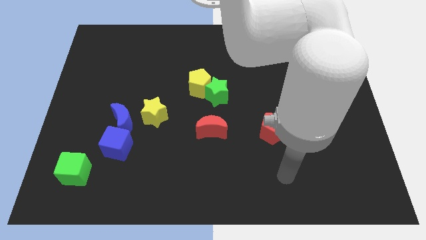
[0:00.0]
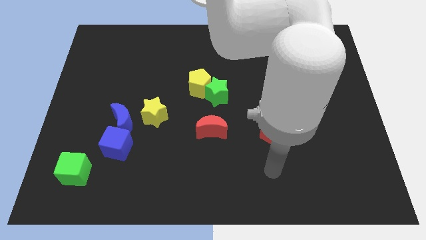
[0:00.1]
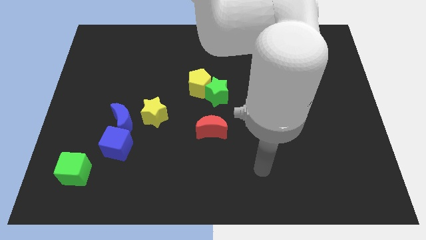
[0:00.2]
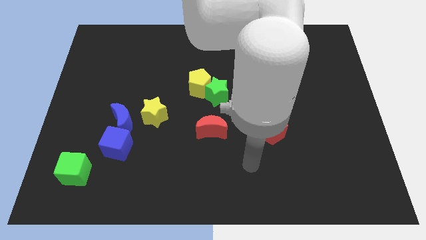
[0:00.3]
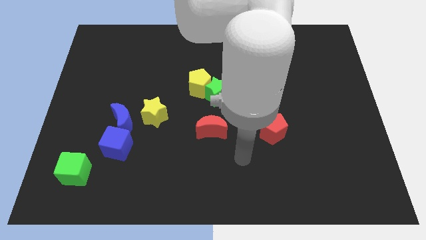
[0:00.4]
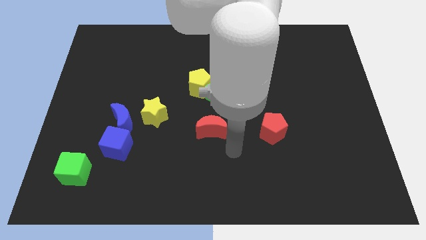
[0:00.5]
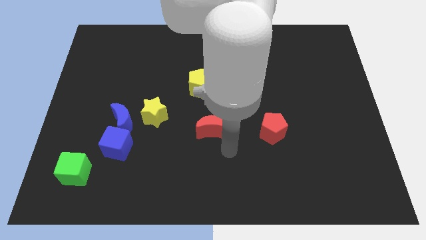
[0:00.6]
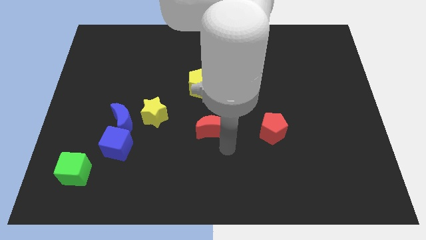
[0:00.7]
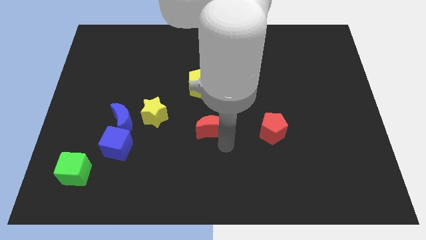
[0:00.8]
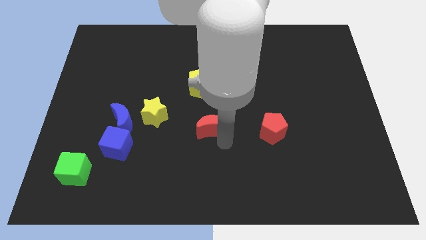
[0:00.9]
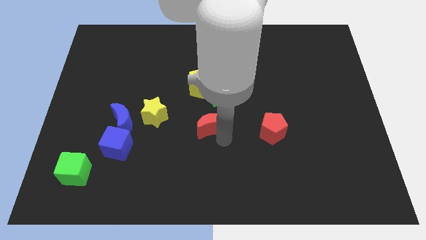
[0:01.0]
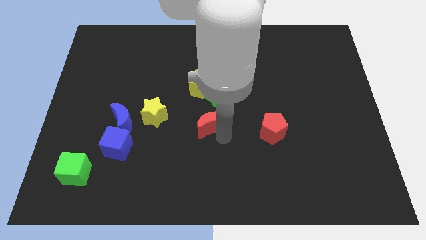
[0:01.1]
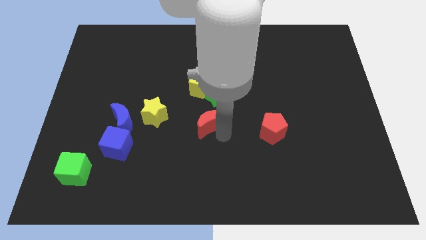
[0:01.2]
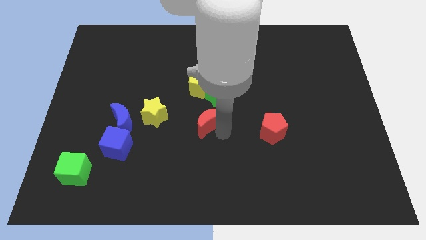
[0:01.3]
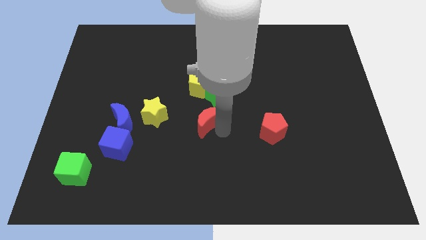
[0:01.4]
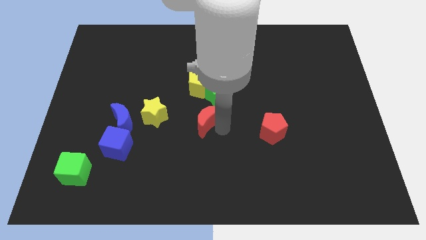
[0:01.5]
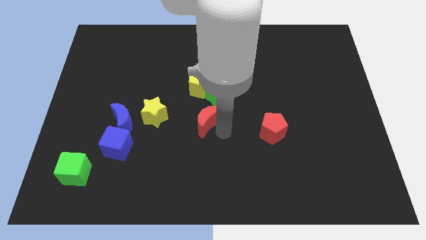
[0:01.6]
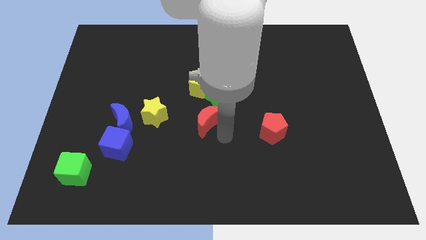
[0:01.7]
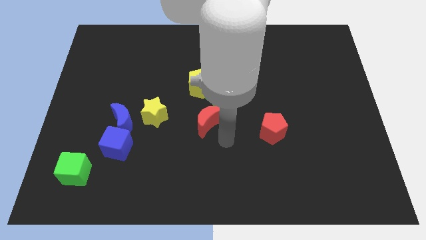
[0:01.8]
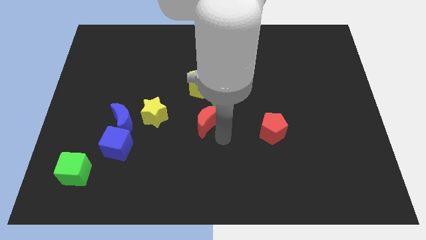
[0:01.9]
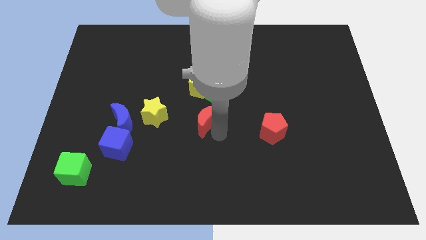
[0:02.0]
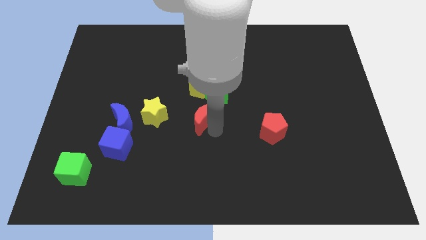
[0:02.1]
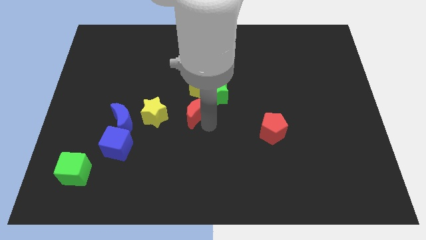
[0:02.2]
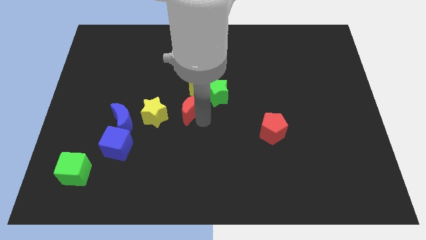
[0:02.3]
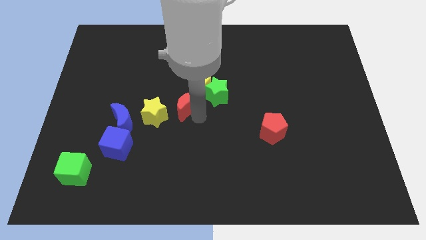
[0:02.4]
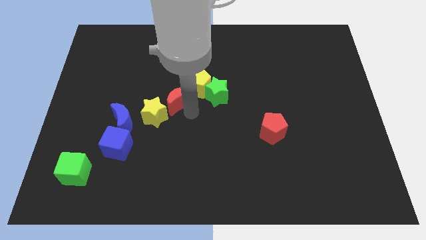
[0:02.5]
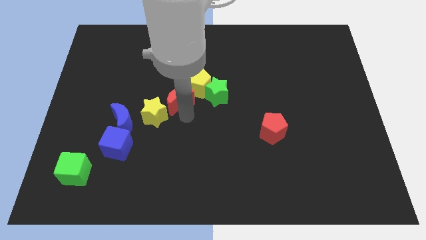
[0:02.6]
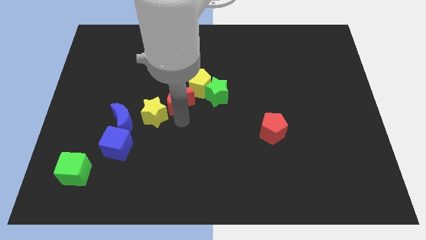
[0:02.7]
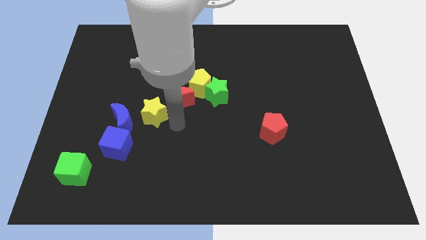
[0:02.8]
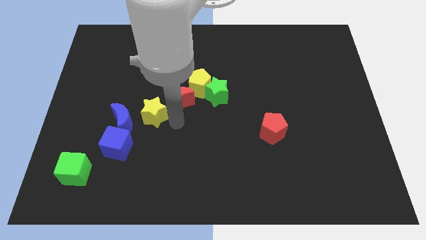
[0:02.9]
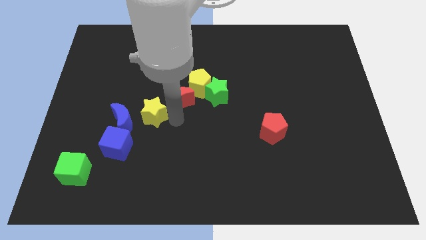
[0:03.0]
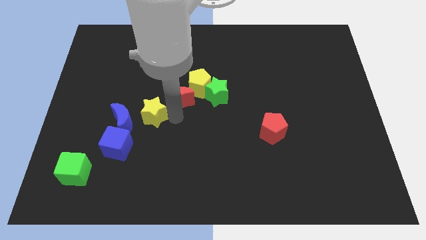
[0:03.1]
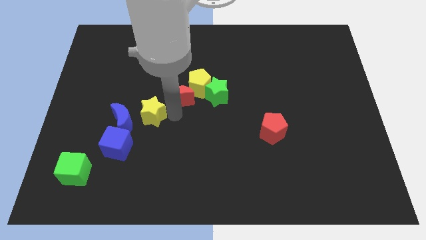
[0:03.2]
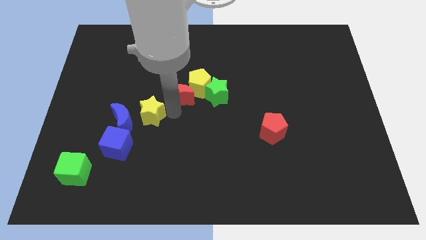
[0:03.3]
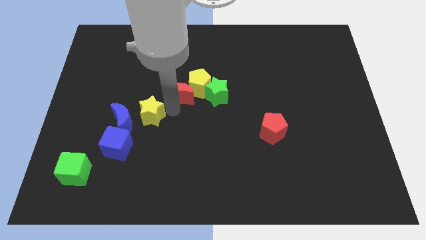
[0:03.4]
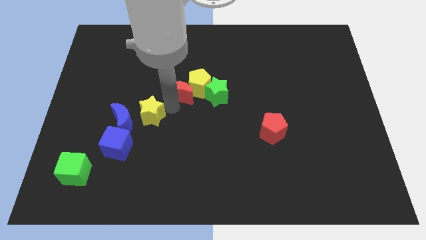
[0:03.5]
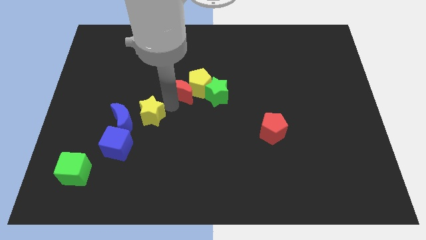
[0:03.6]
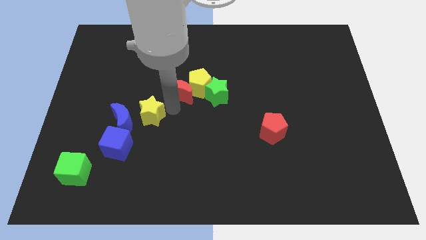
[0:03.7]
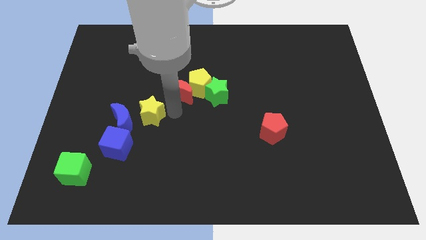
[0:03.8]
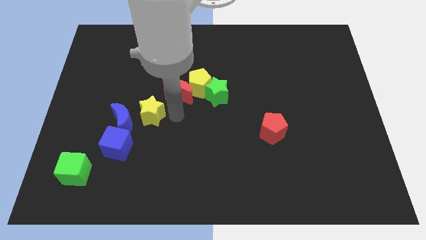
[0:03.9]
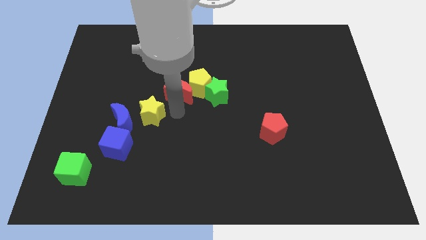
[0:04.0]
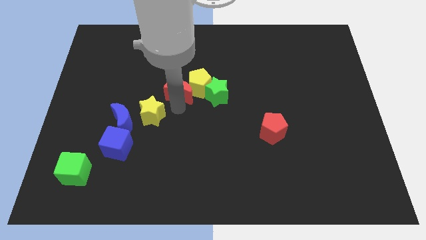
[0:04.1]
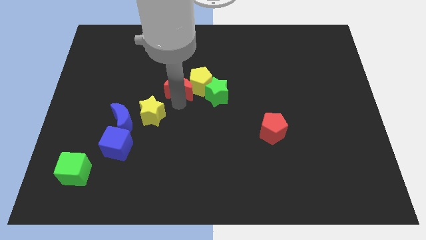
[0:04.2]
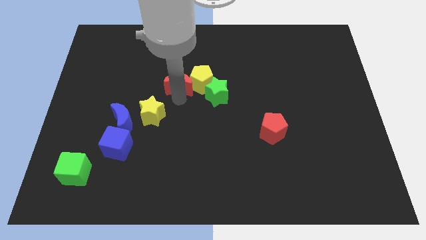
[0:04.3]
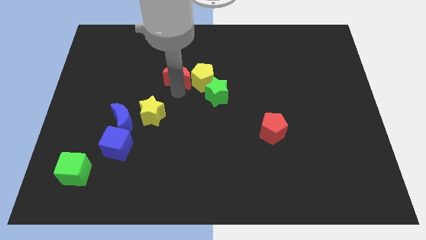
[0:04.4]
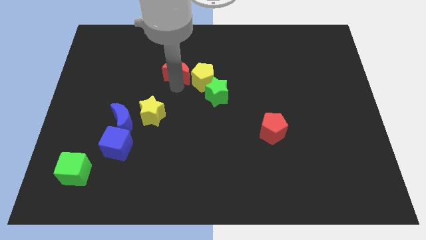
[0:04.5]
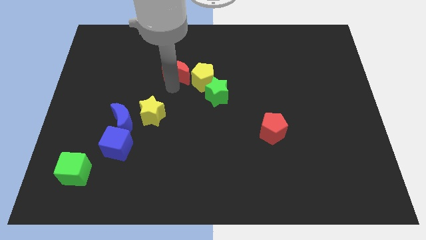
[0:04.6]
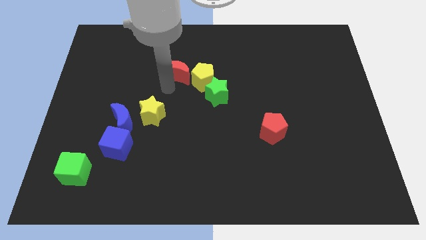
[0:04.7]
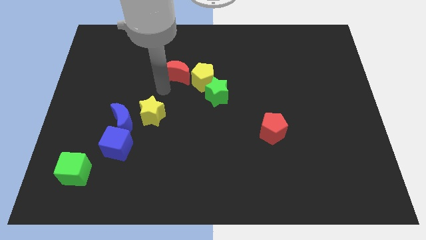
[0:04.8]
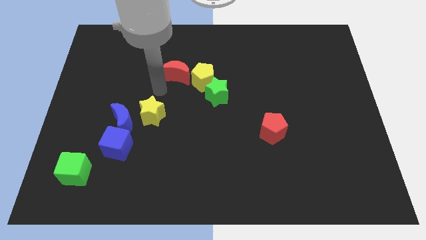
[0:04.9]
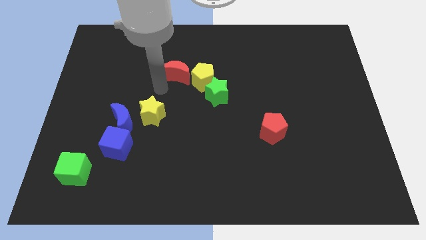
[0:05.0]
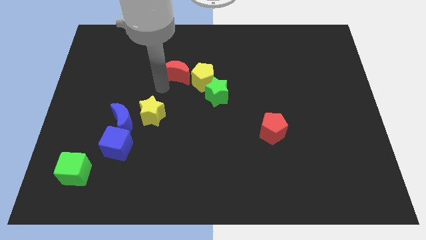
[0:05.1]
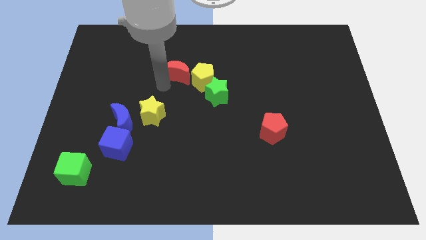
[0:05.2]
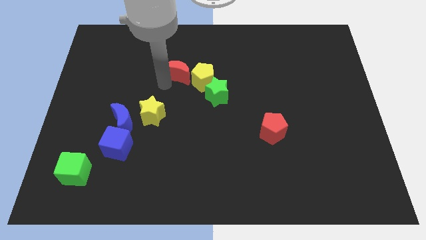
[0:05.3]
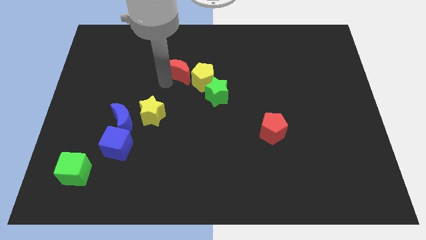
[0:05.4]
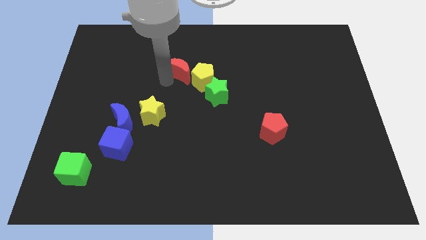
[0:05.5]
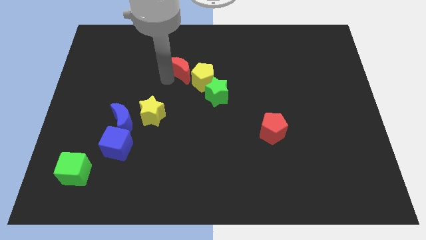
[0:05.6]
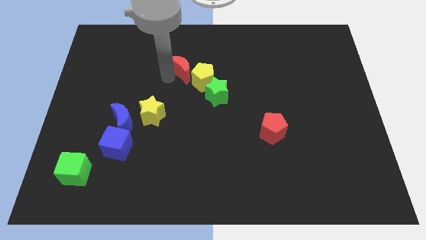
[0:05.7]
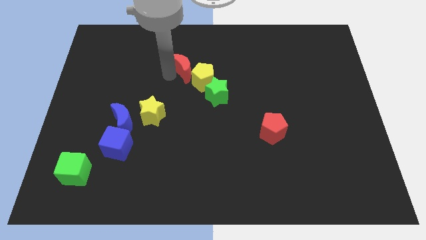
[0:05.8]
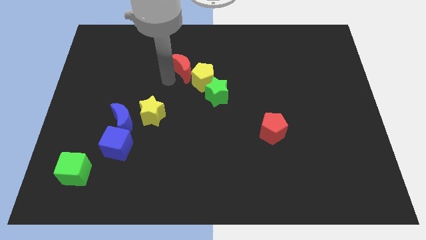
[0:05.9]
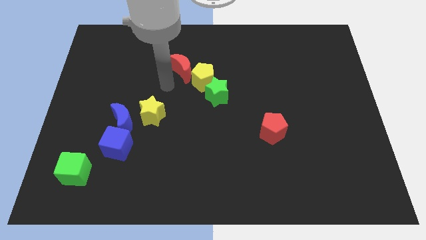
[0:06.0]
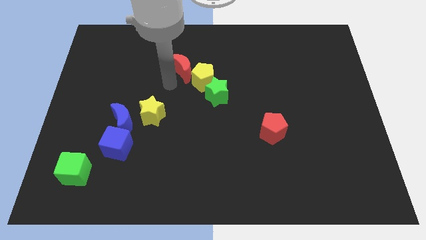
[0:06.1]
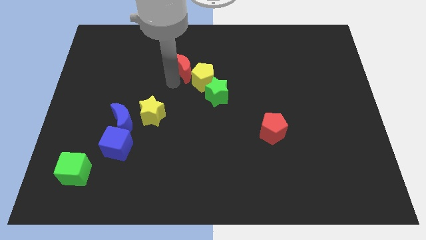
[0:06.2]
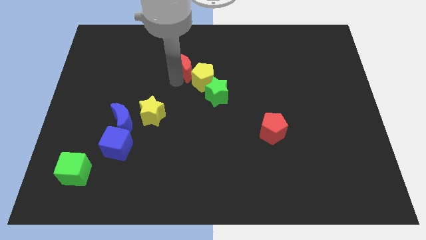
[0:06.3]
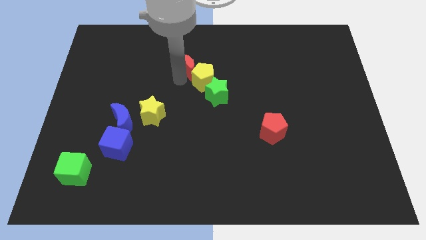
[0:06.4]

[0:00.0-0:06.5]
push the red moon to the top of the yellow pentagon
